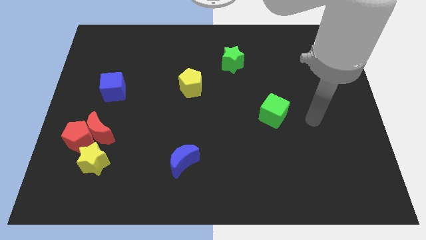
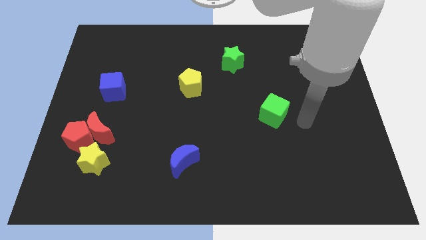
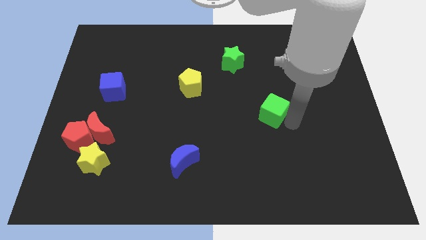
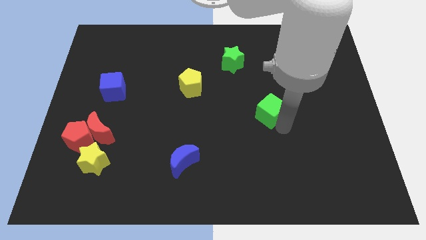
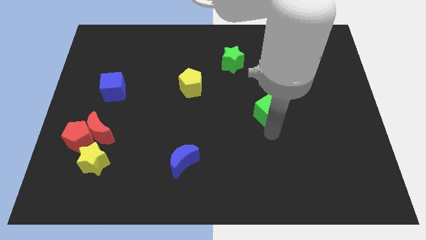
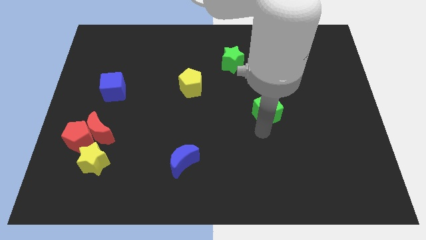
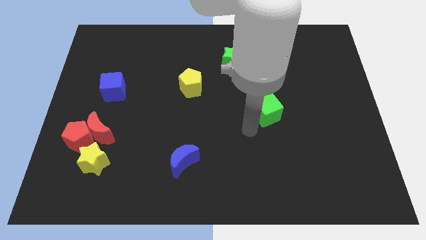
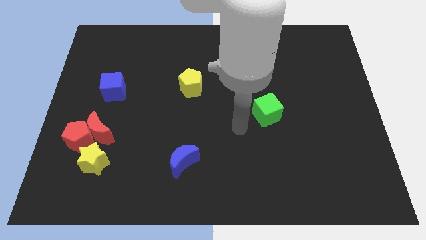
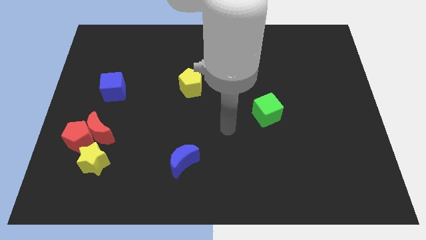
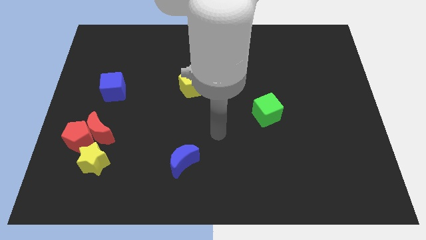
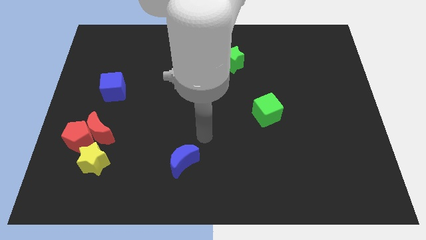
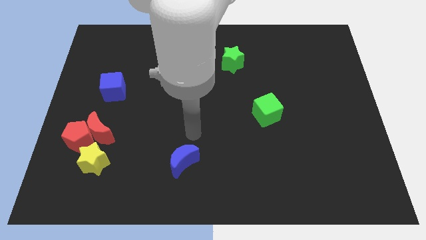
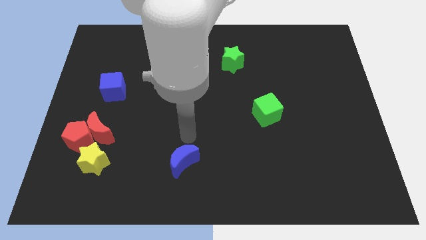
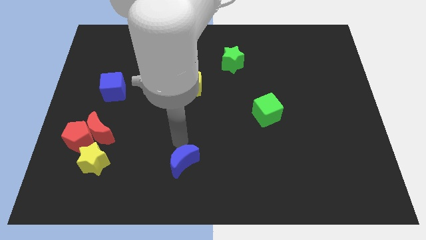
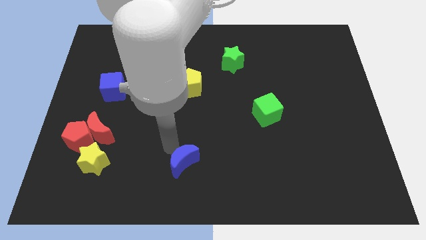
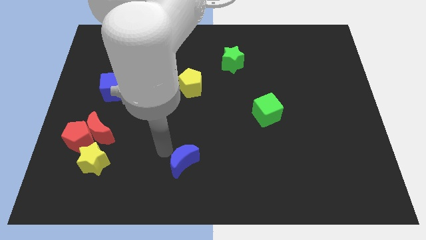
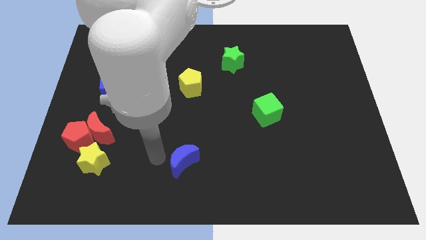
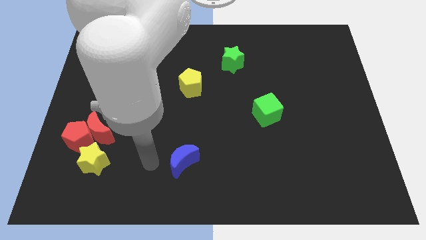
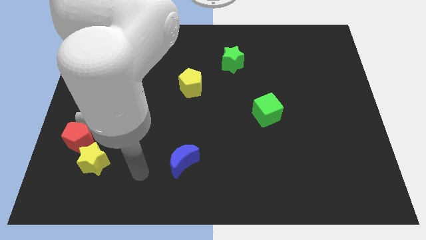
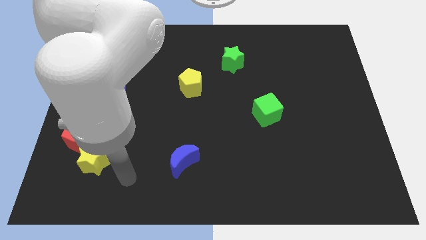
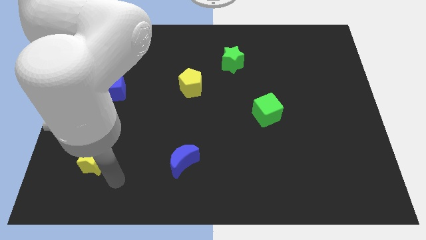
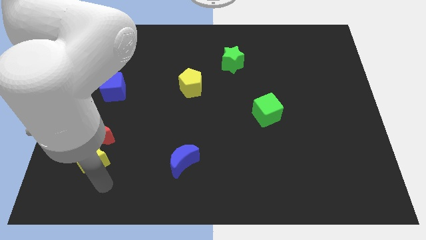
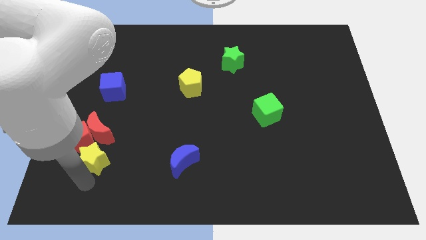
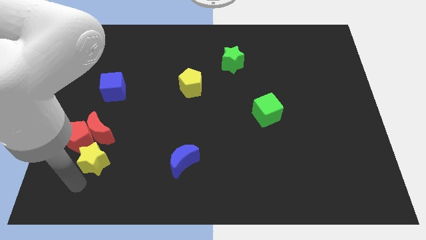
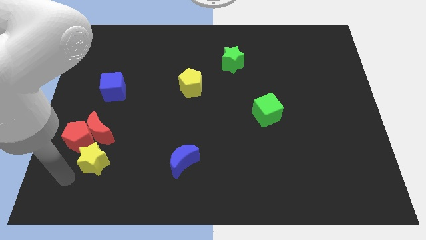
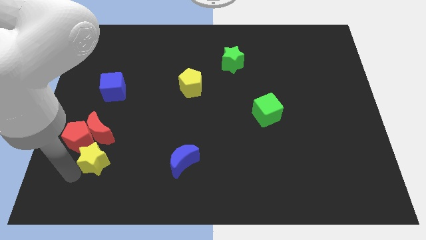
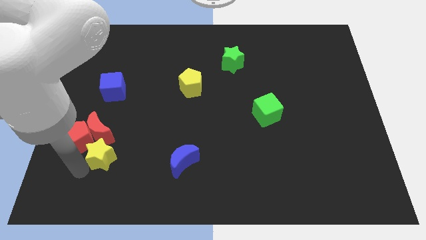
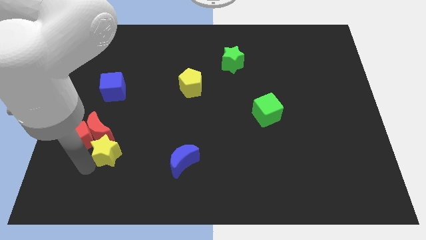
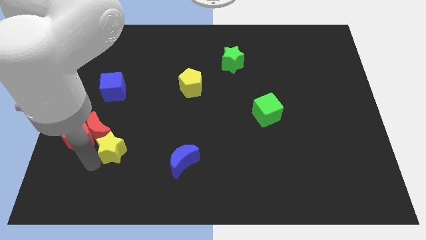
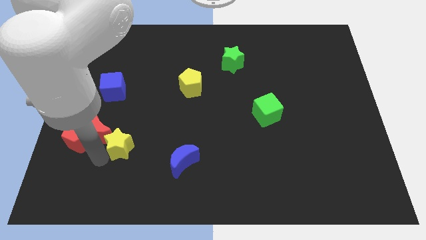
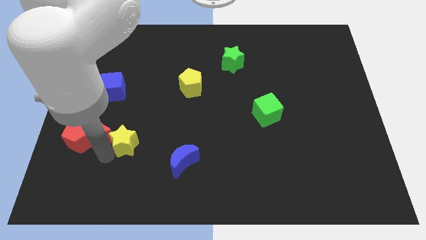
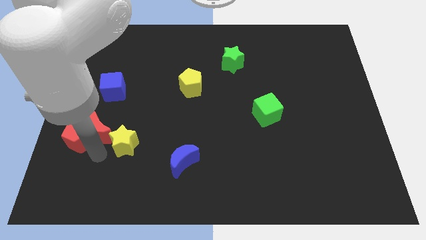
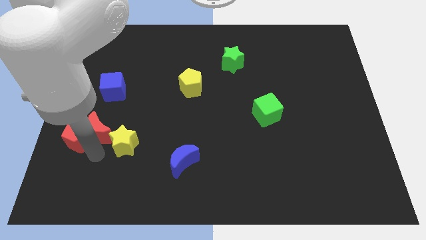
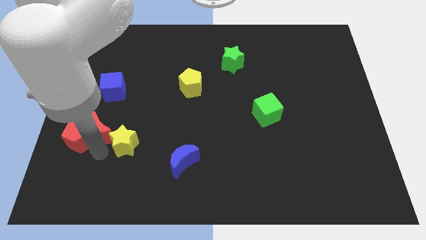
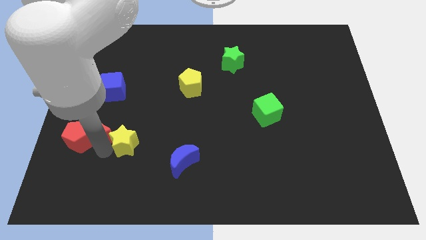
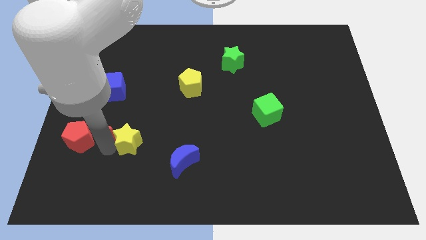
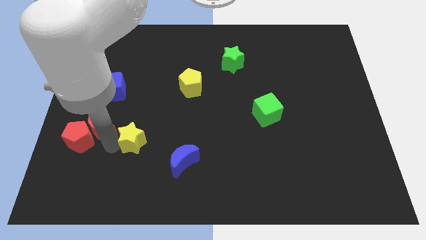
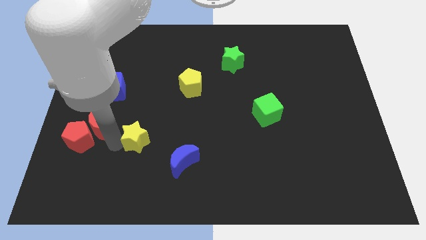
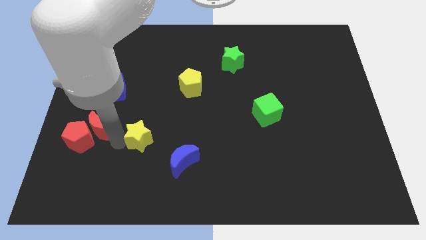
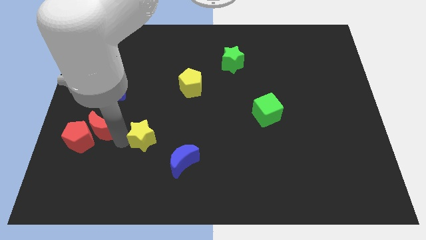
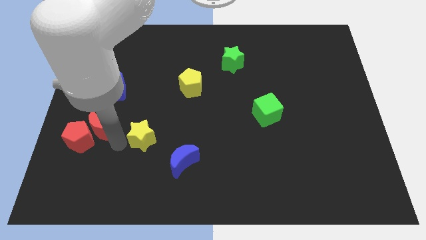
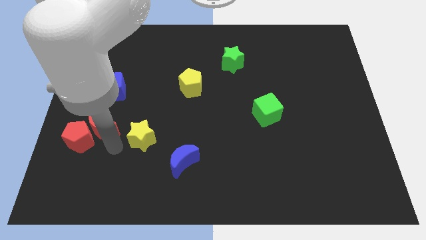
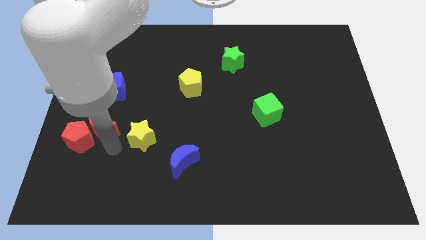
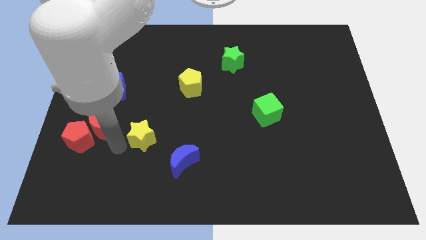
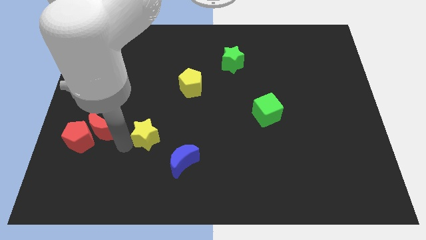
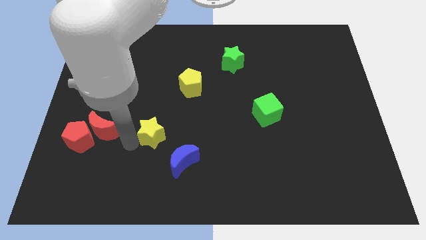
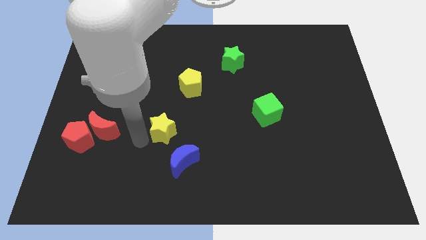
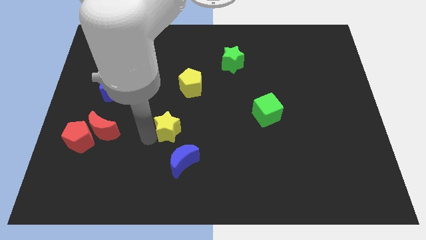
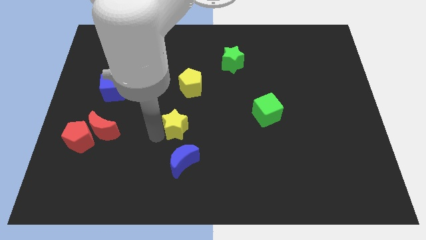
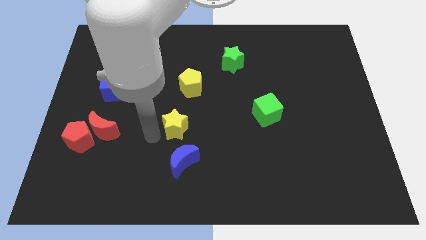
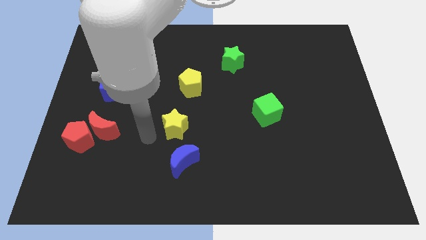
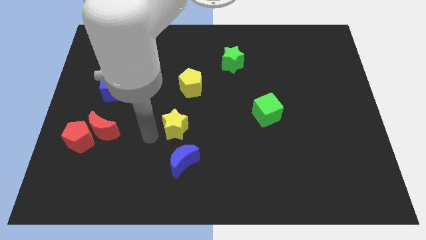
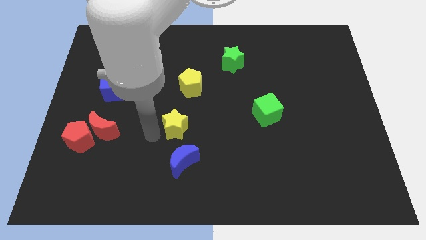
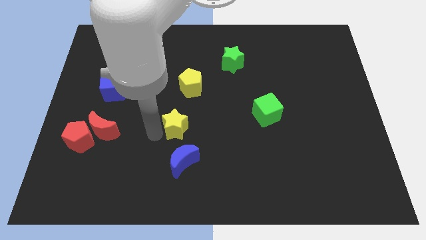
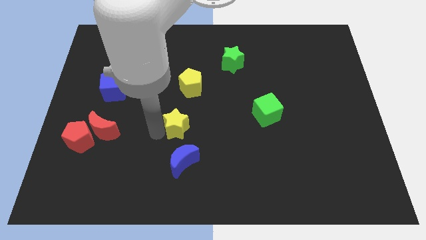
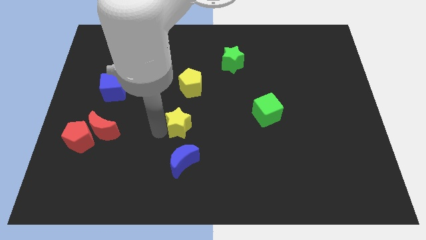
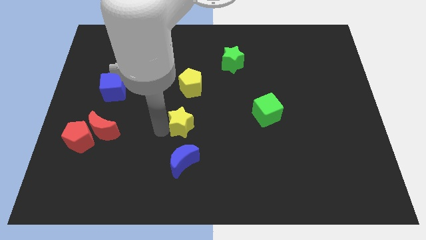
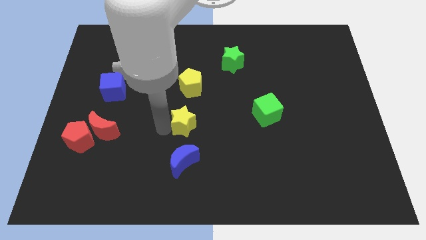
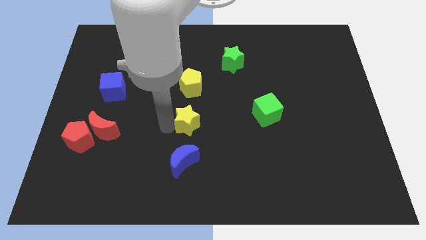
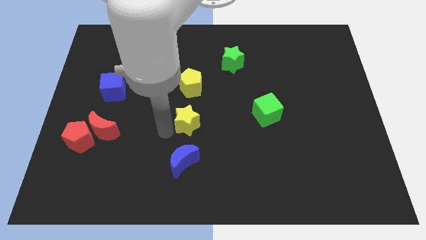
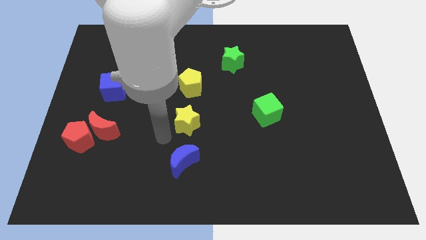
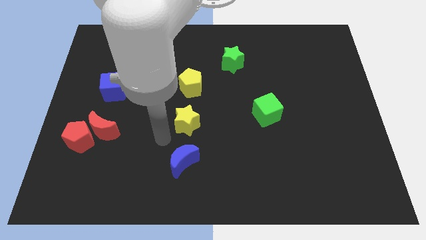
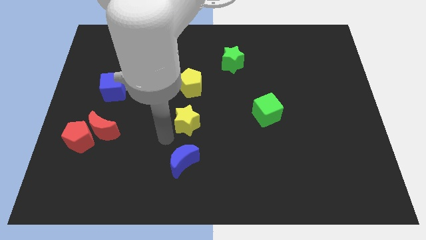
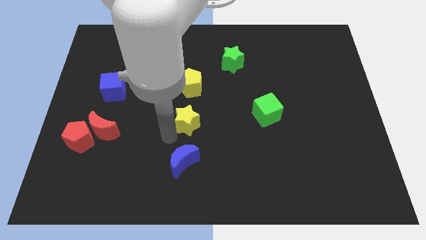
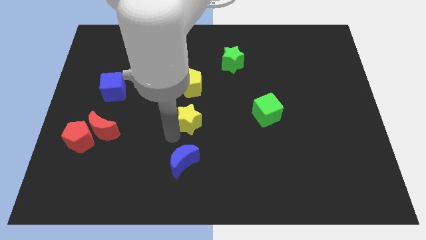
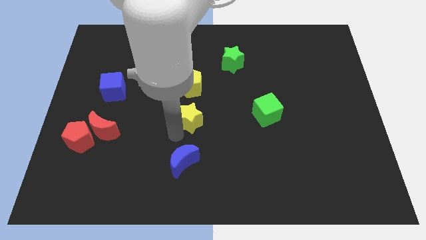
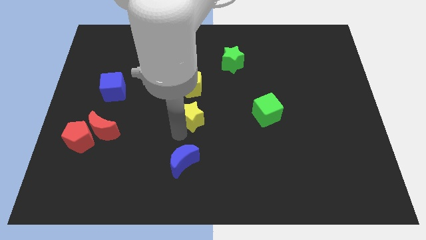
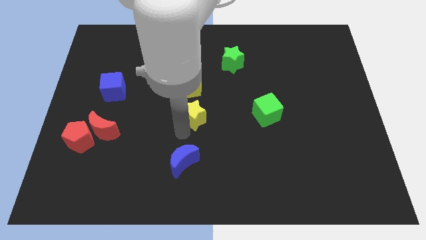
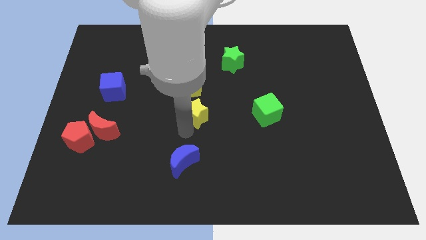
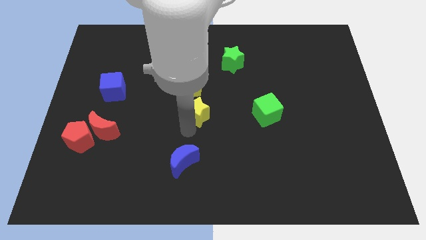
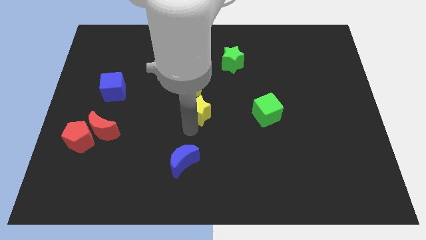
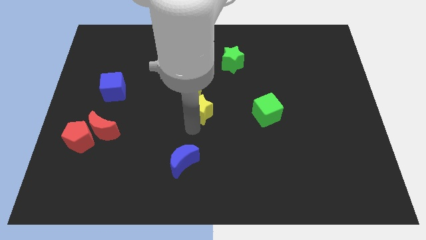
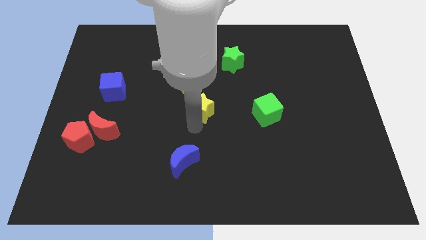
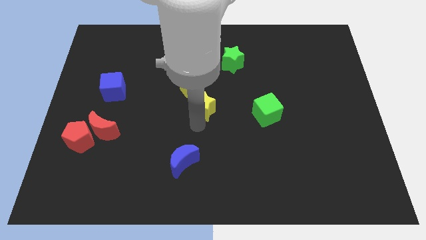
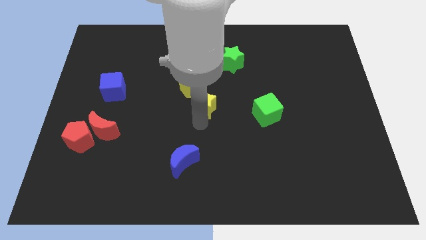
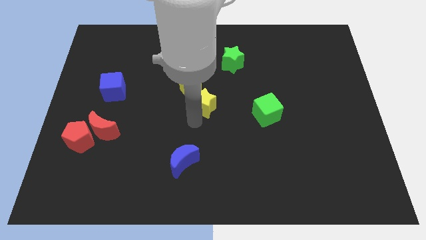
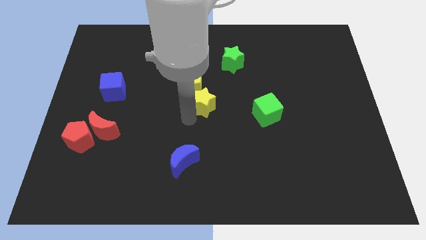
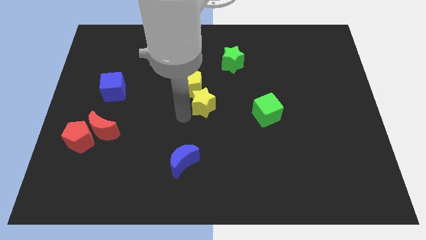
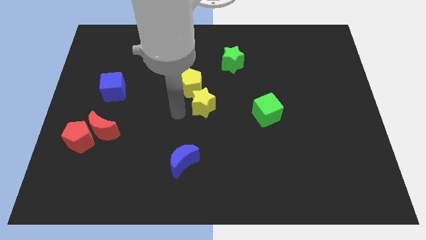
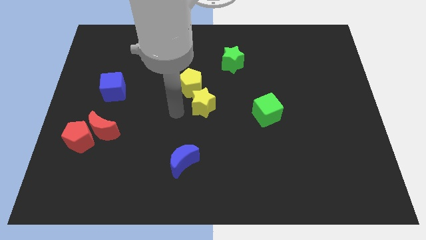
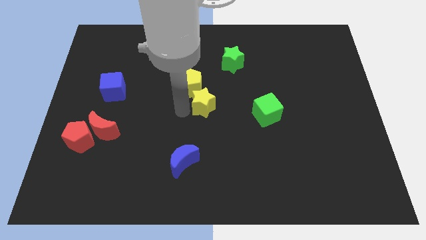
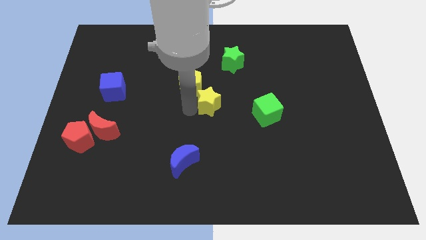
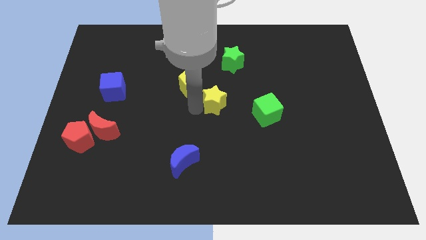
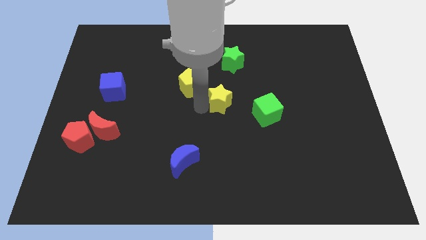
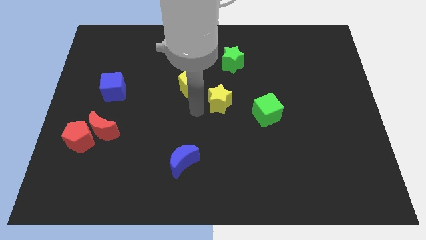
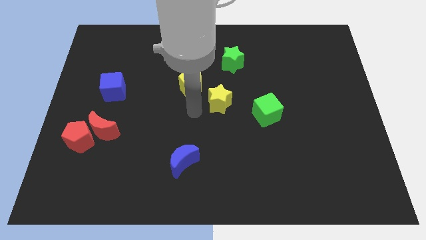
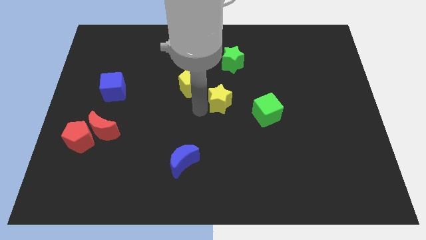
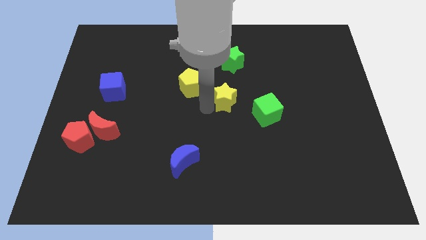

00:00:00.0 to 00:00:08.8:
slide the yellow star to the top left of the green cube
